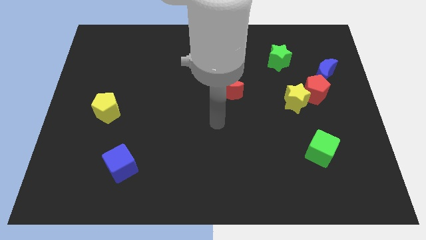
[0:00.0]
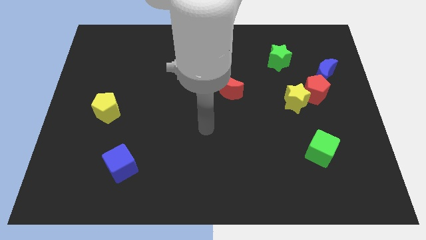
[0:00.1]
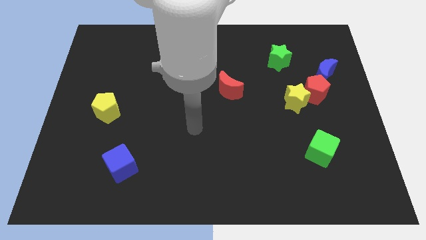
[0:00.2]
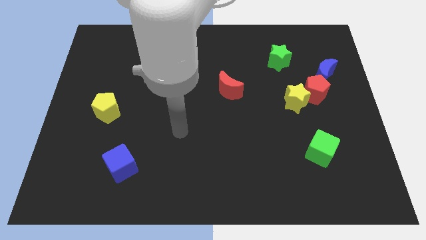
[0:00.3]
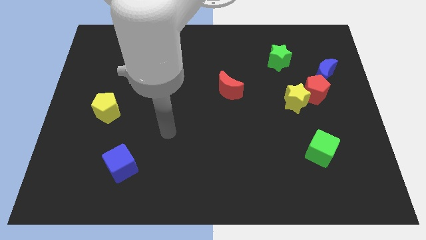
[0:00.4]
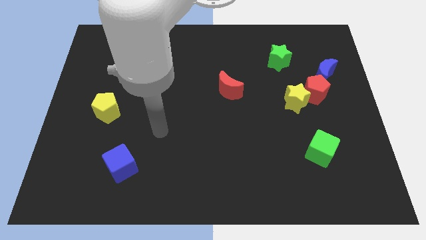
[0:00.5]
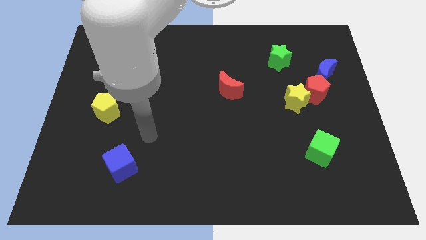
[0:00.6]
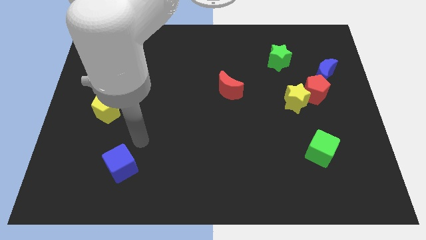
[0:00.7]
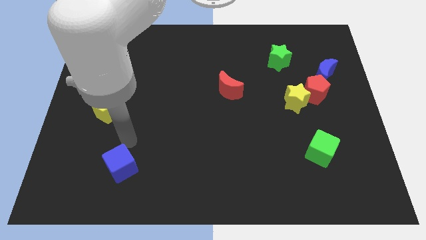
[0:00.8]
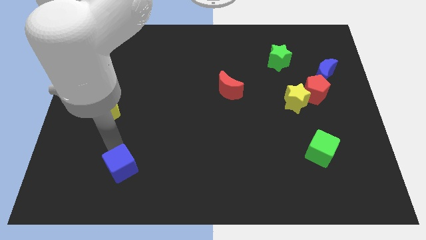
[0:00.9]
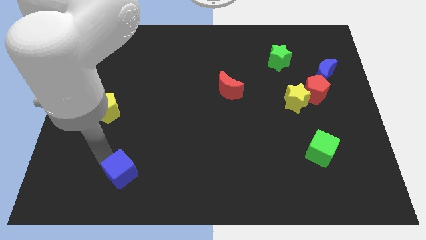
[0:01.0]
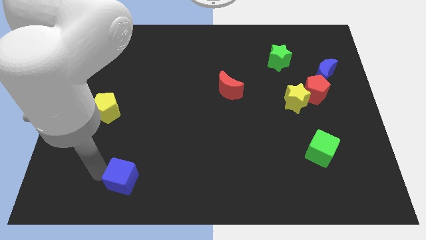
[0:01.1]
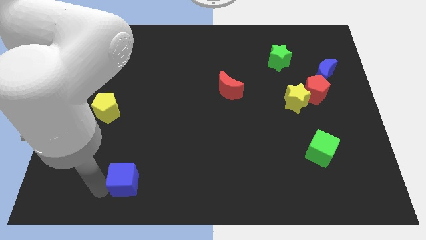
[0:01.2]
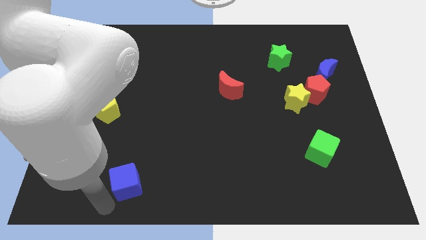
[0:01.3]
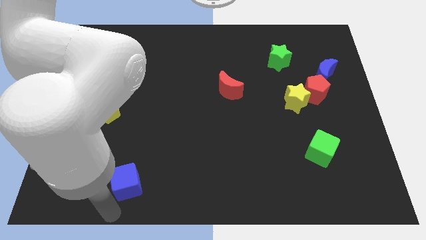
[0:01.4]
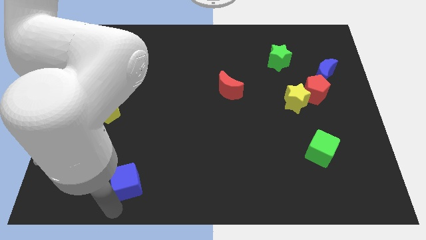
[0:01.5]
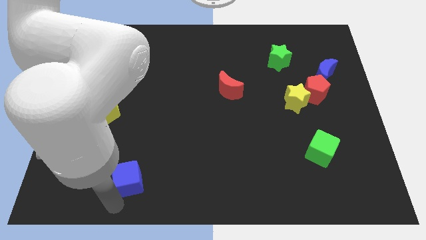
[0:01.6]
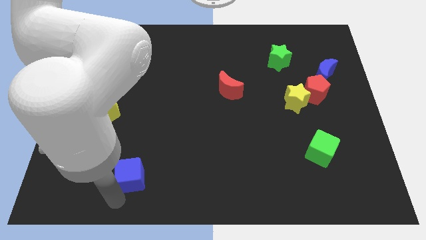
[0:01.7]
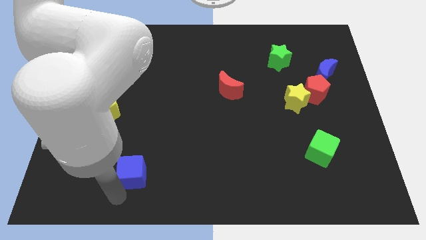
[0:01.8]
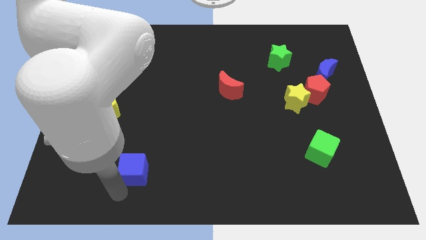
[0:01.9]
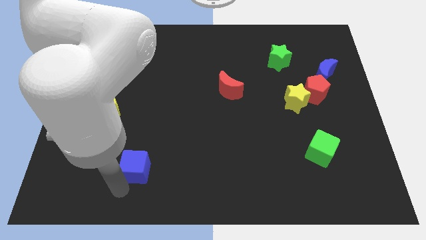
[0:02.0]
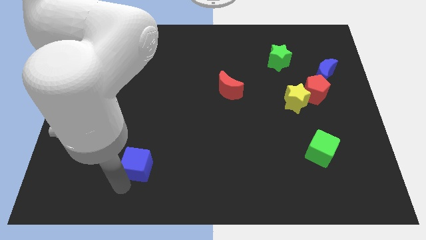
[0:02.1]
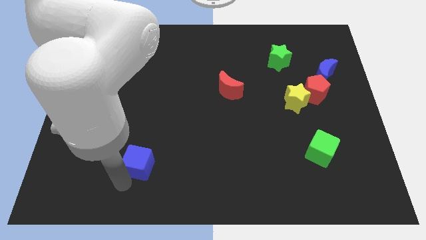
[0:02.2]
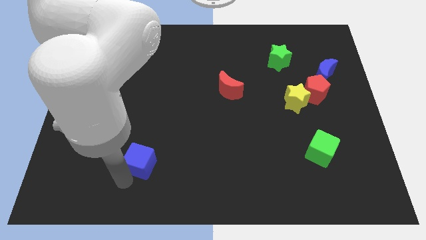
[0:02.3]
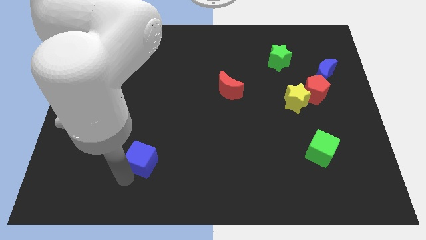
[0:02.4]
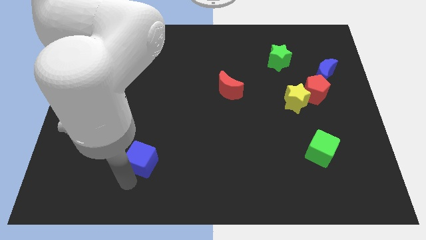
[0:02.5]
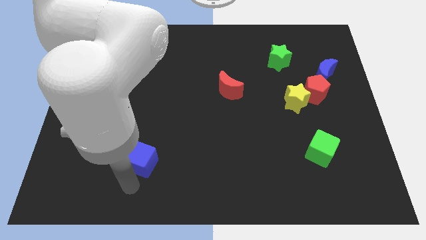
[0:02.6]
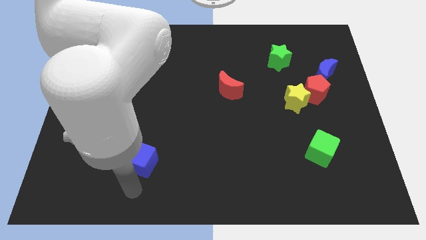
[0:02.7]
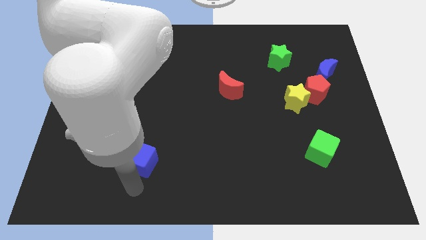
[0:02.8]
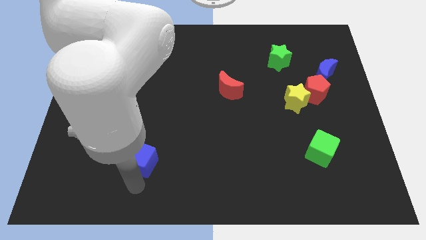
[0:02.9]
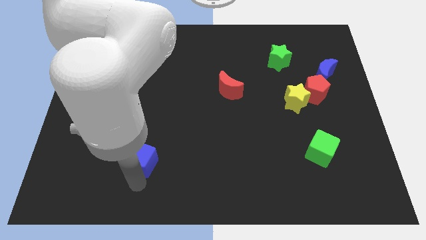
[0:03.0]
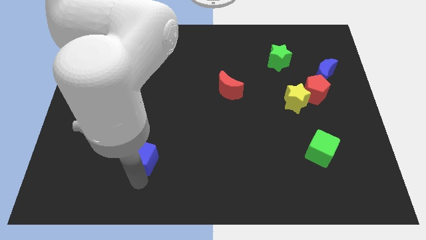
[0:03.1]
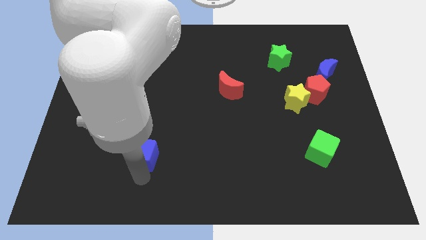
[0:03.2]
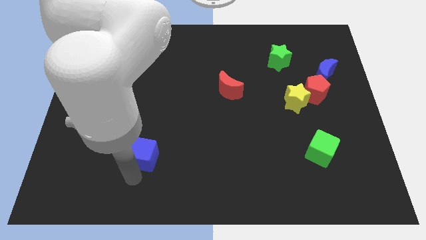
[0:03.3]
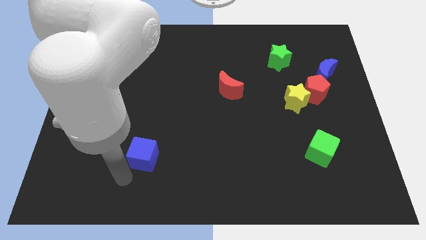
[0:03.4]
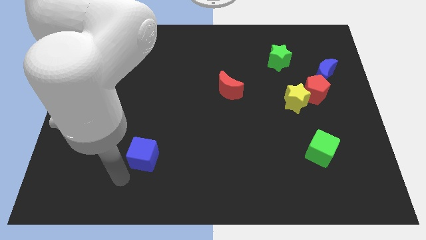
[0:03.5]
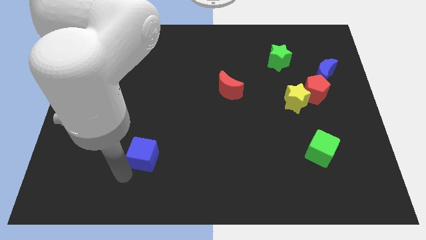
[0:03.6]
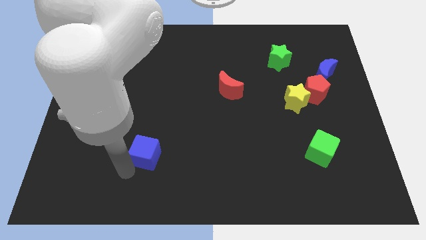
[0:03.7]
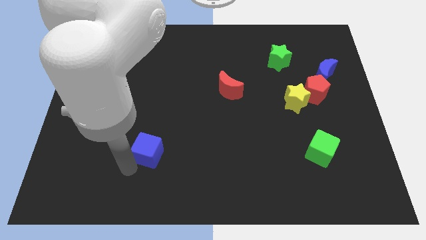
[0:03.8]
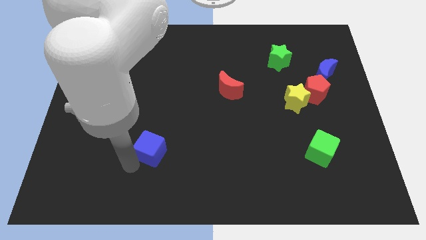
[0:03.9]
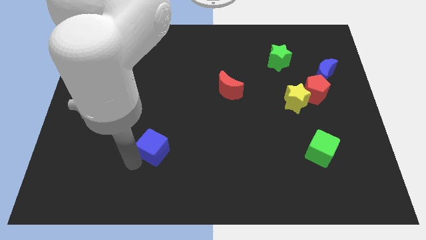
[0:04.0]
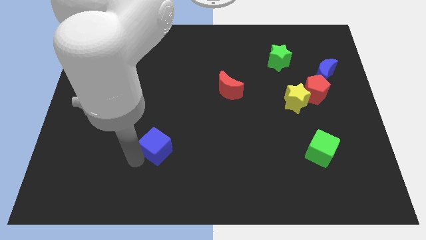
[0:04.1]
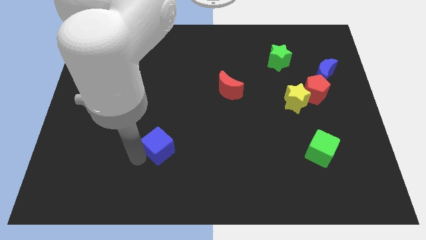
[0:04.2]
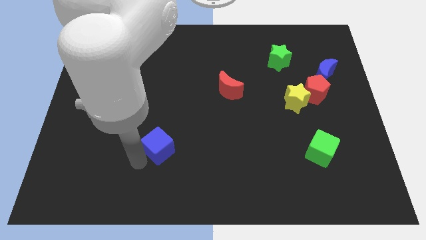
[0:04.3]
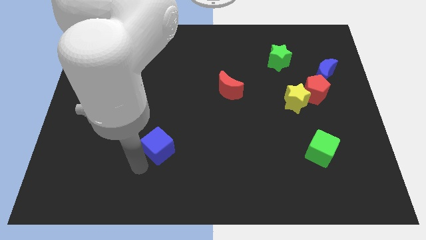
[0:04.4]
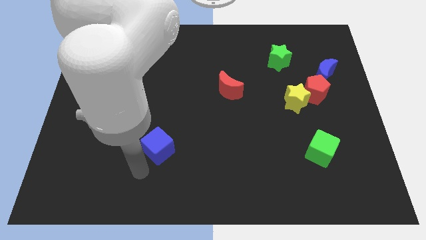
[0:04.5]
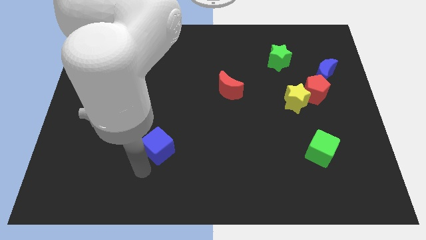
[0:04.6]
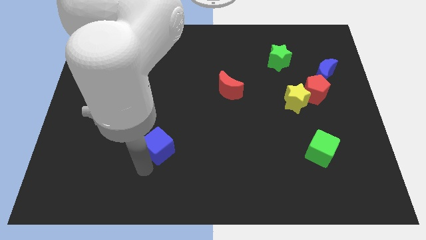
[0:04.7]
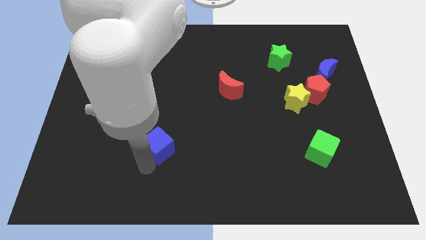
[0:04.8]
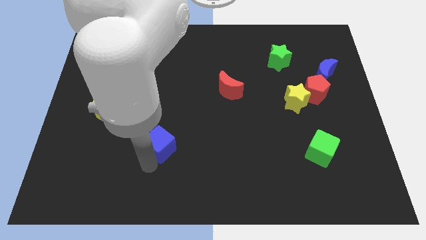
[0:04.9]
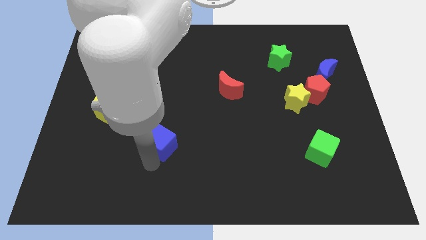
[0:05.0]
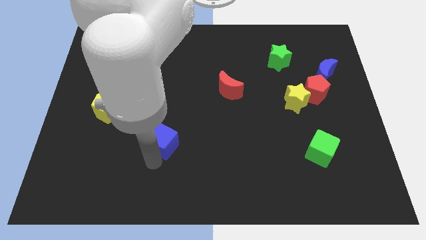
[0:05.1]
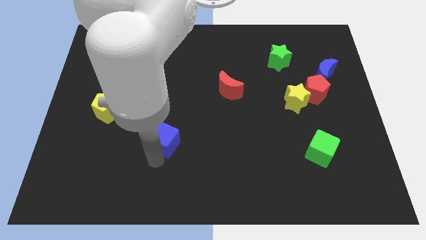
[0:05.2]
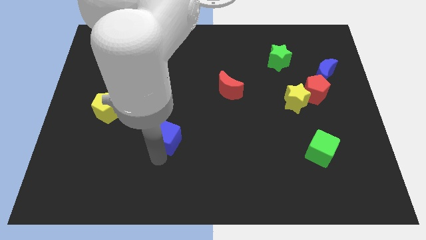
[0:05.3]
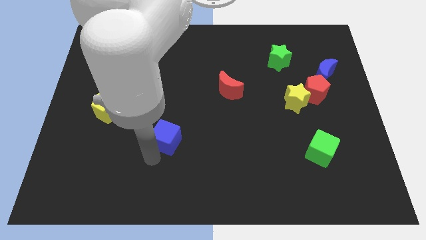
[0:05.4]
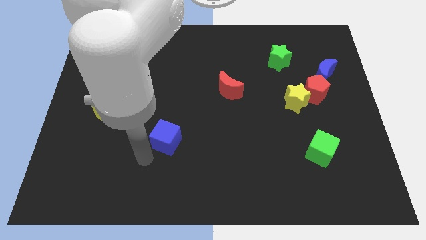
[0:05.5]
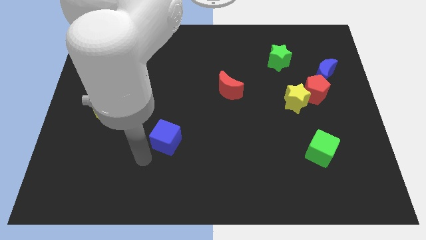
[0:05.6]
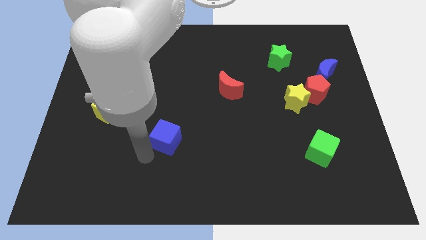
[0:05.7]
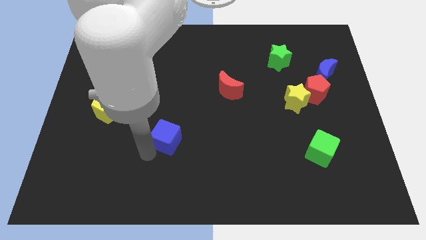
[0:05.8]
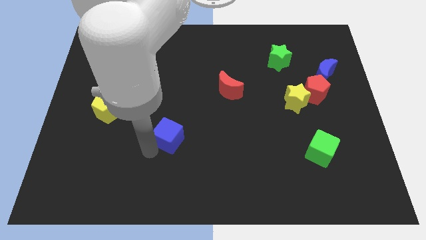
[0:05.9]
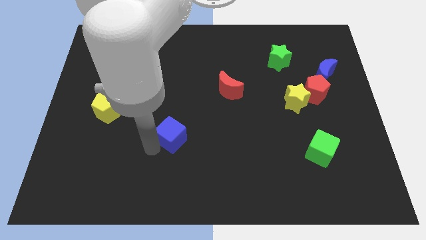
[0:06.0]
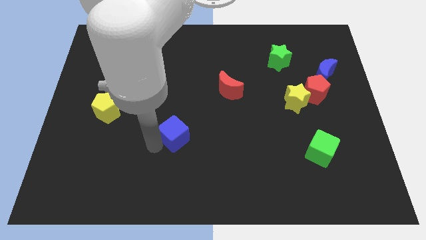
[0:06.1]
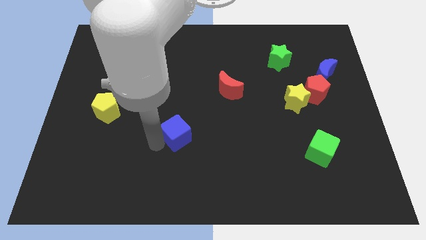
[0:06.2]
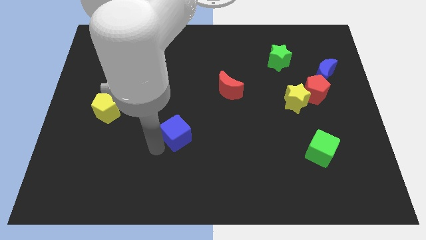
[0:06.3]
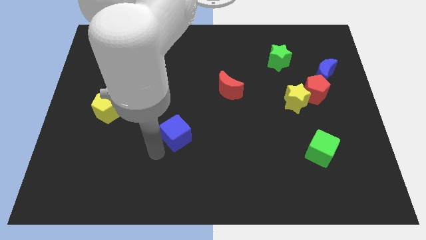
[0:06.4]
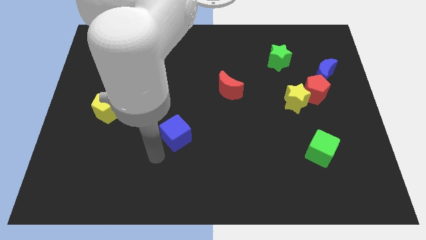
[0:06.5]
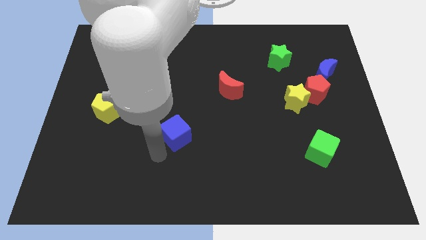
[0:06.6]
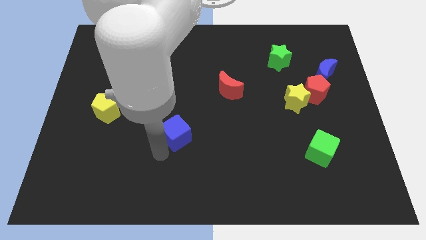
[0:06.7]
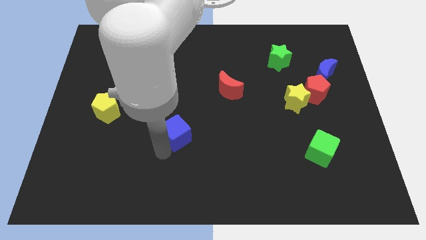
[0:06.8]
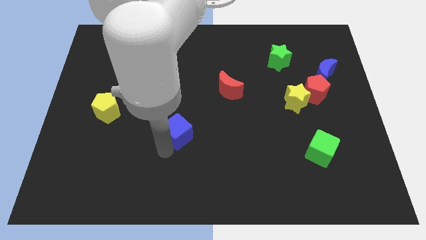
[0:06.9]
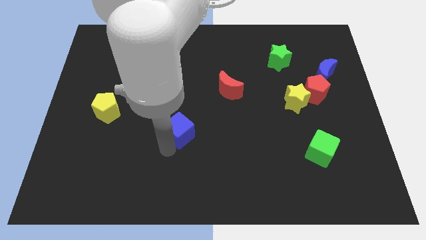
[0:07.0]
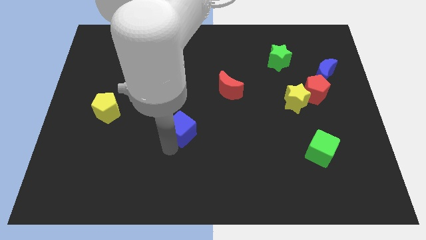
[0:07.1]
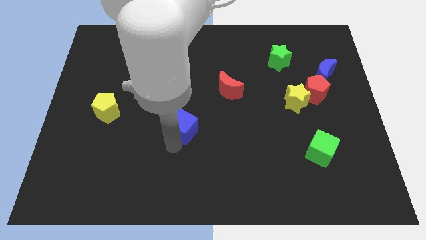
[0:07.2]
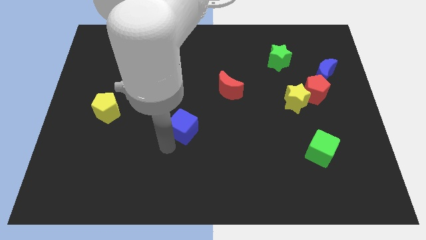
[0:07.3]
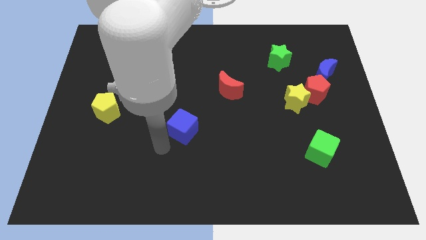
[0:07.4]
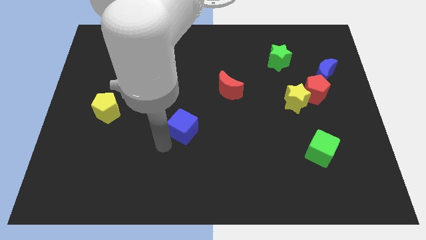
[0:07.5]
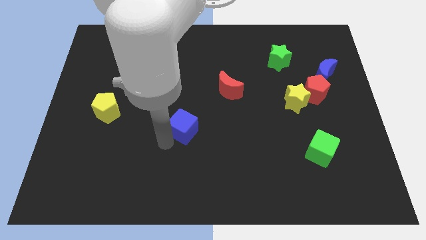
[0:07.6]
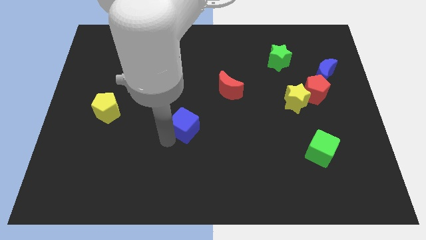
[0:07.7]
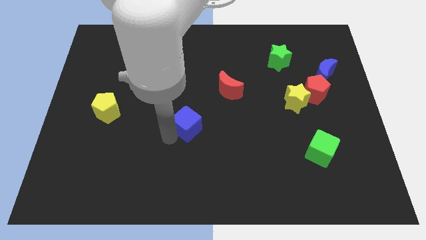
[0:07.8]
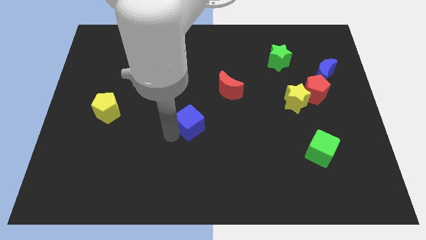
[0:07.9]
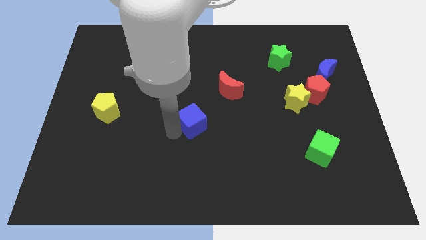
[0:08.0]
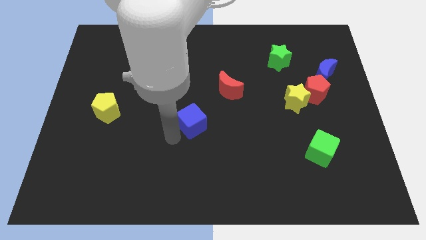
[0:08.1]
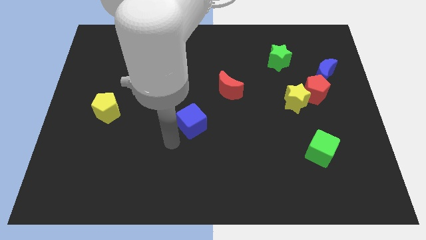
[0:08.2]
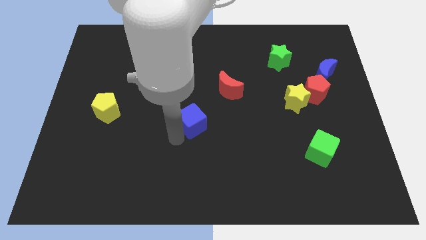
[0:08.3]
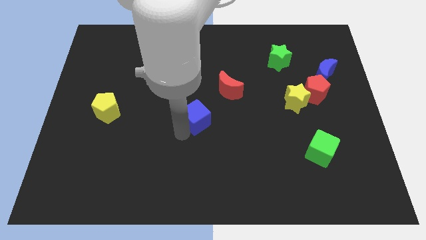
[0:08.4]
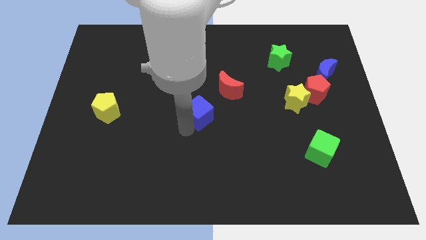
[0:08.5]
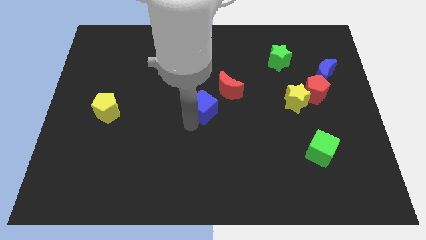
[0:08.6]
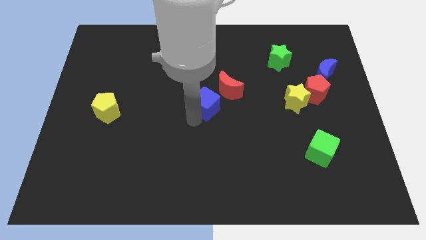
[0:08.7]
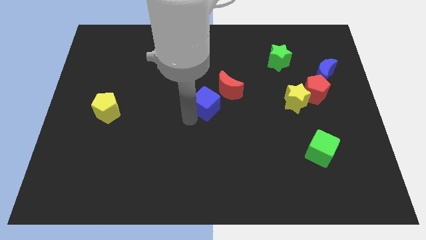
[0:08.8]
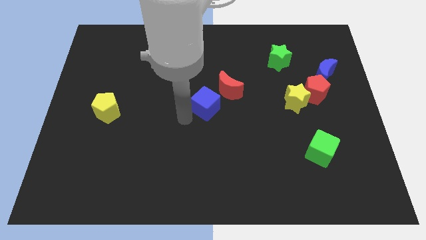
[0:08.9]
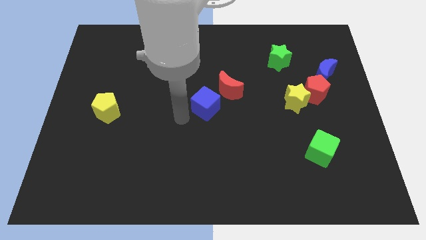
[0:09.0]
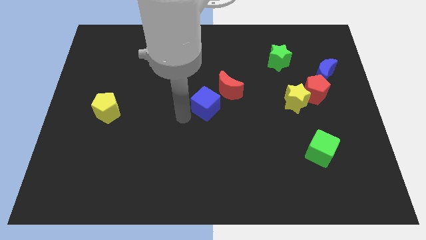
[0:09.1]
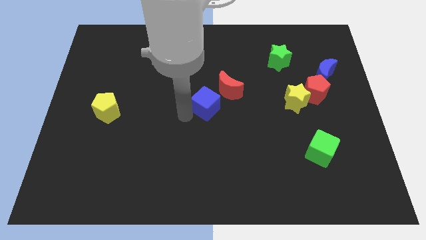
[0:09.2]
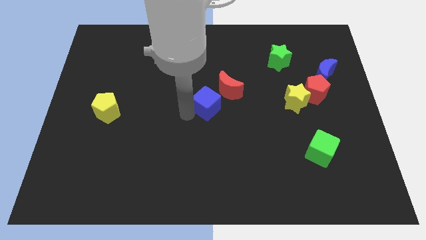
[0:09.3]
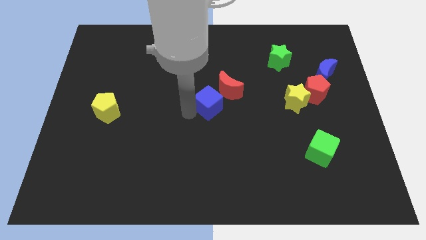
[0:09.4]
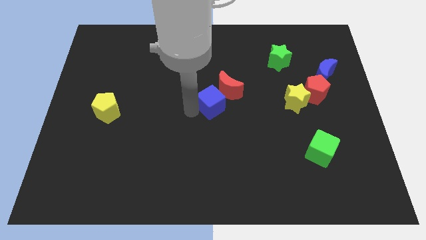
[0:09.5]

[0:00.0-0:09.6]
put the blue cube close to the red moon
